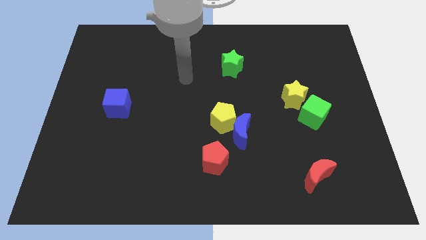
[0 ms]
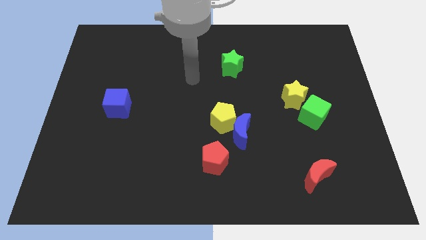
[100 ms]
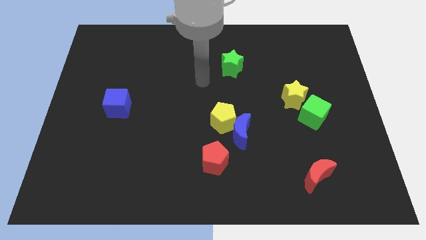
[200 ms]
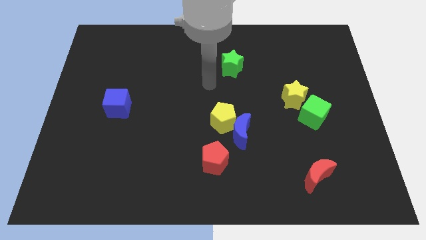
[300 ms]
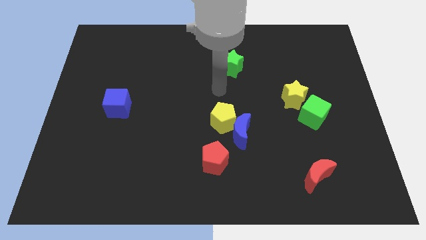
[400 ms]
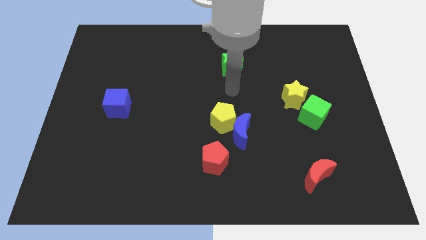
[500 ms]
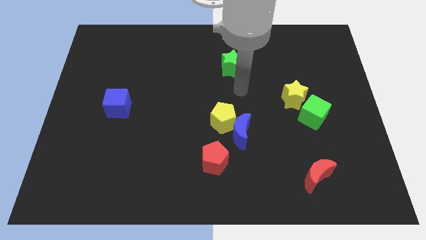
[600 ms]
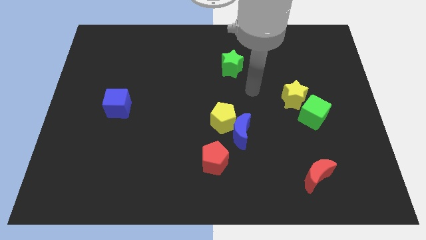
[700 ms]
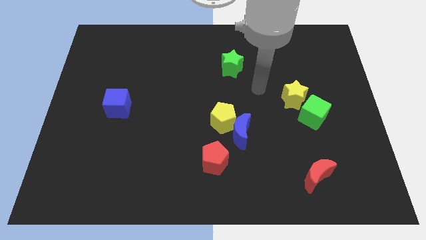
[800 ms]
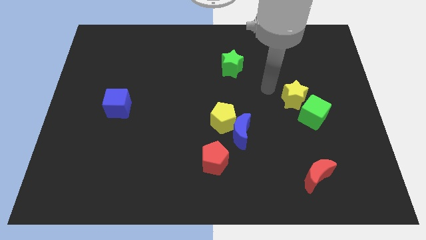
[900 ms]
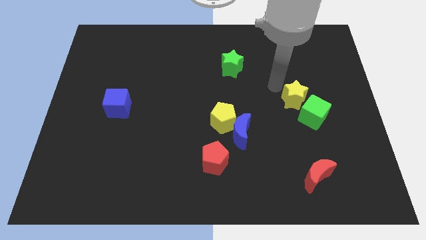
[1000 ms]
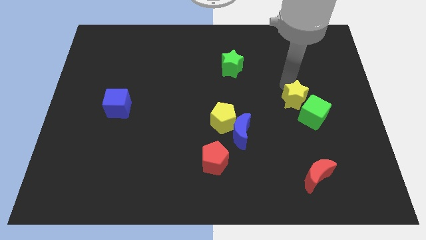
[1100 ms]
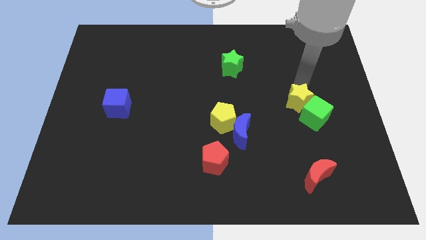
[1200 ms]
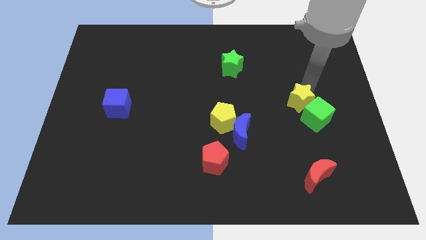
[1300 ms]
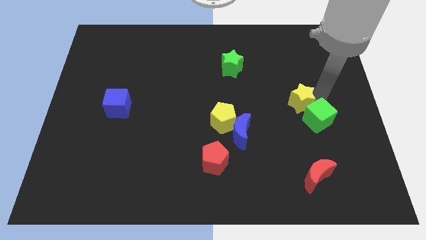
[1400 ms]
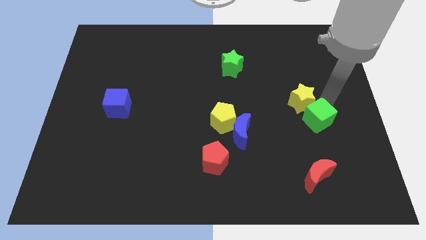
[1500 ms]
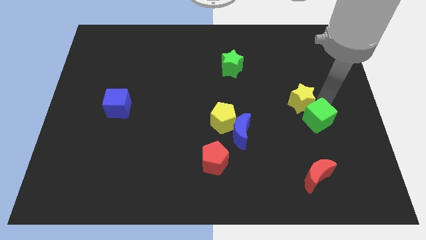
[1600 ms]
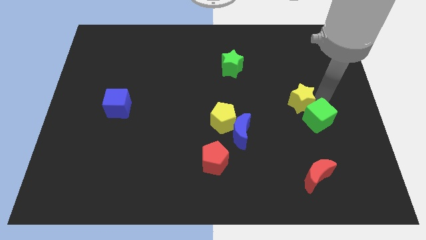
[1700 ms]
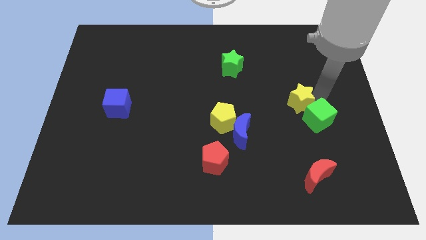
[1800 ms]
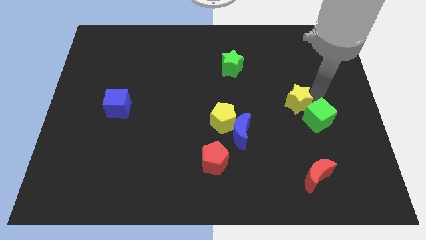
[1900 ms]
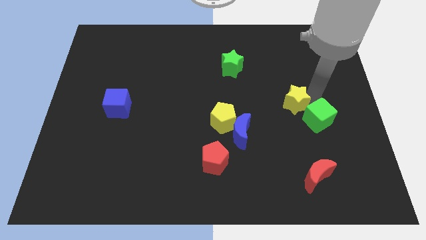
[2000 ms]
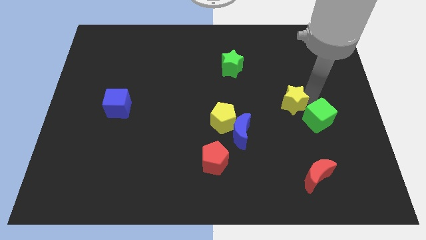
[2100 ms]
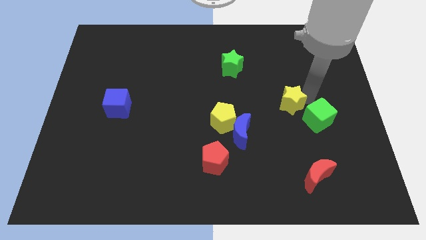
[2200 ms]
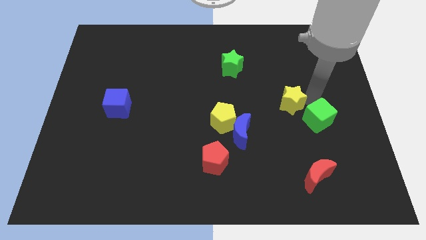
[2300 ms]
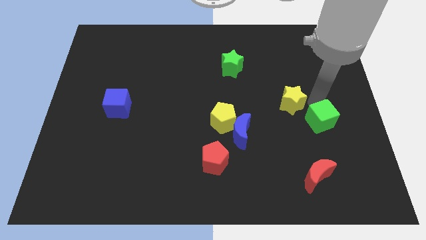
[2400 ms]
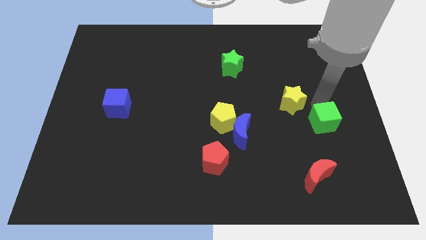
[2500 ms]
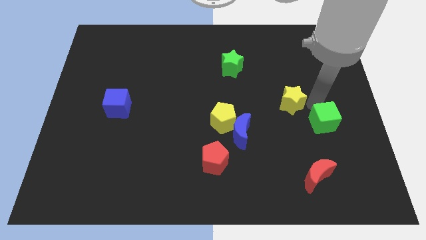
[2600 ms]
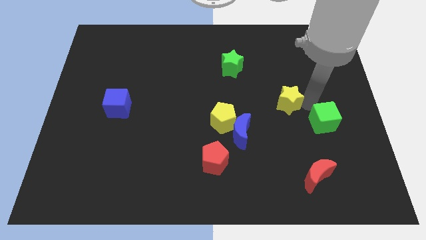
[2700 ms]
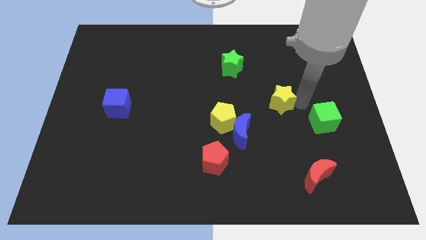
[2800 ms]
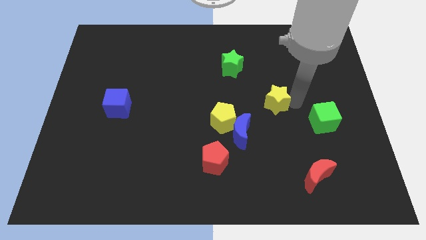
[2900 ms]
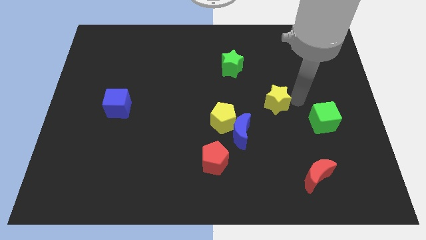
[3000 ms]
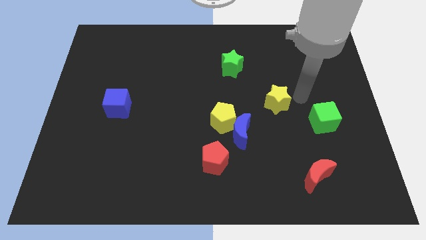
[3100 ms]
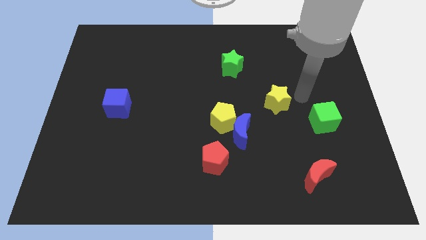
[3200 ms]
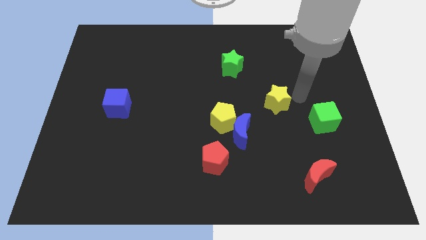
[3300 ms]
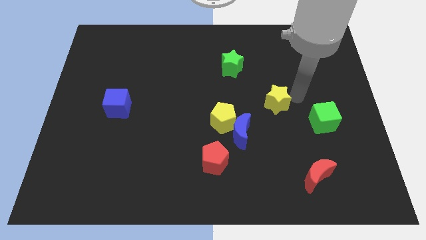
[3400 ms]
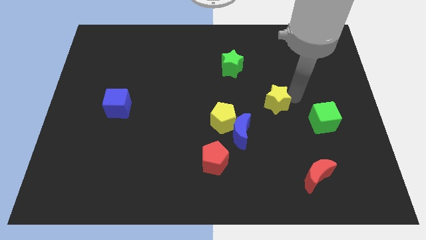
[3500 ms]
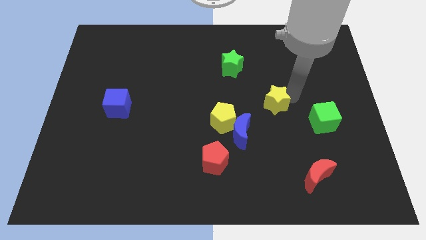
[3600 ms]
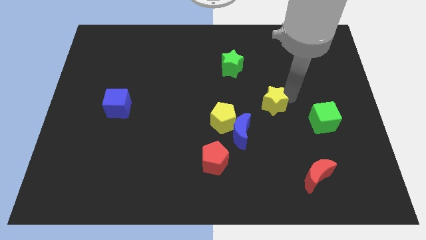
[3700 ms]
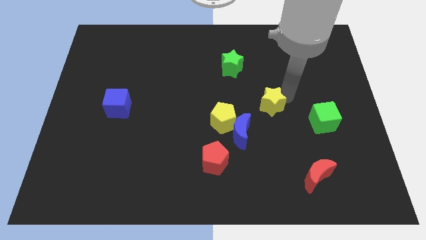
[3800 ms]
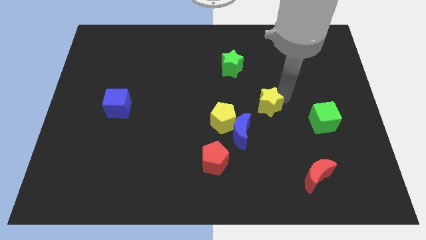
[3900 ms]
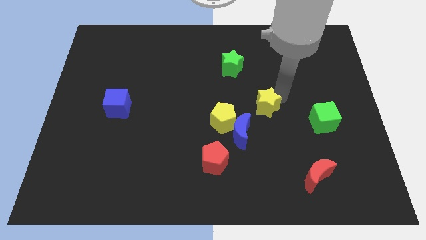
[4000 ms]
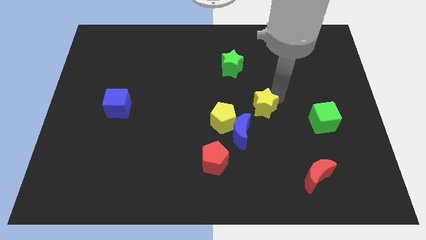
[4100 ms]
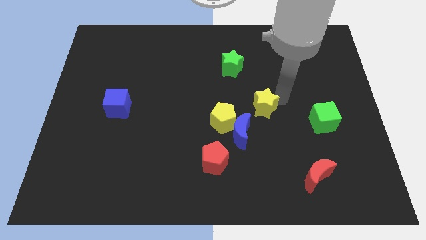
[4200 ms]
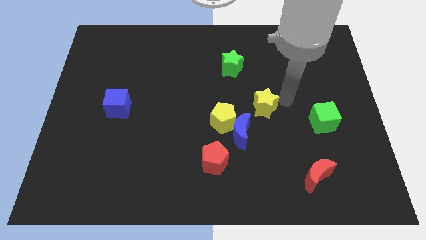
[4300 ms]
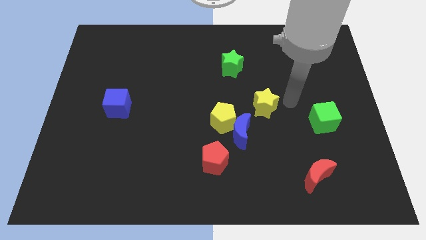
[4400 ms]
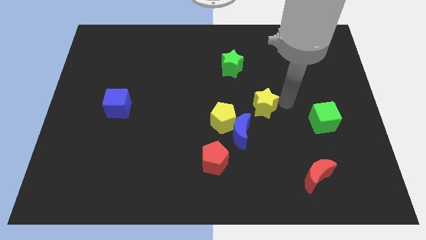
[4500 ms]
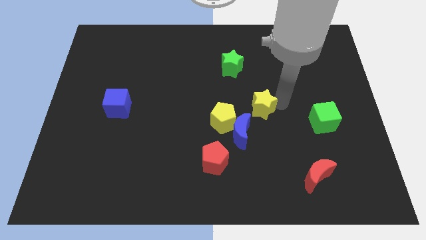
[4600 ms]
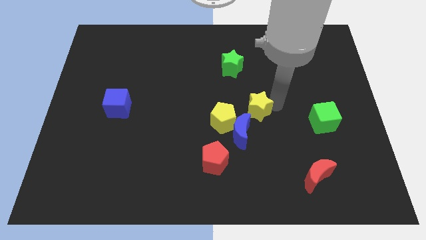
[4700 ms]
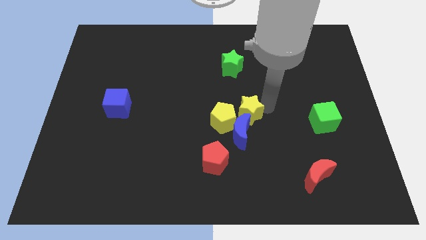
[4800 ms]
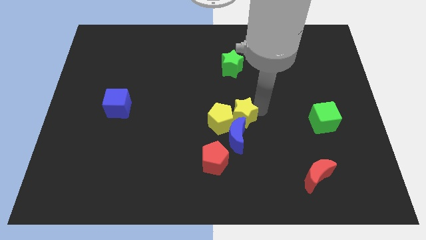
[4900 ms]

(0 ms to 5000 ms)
slide the yellow star to the yellow pentagon

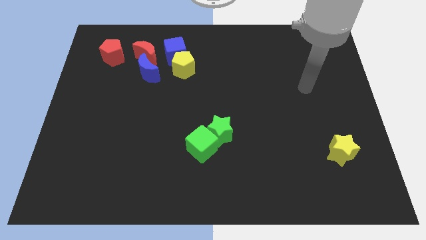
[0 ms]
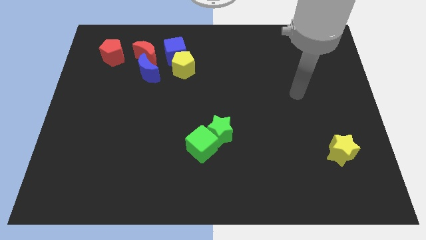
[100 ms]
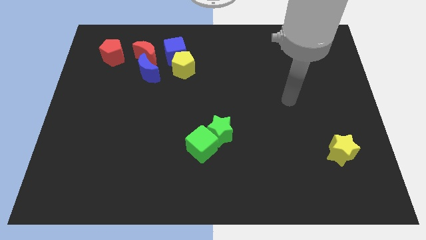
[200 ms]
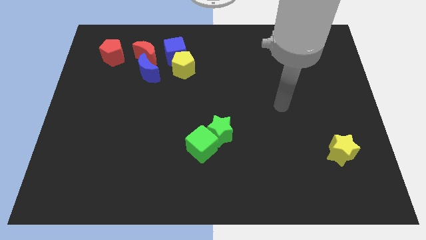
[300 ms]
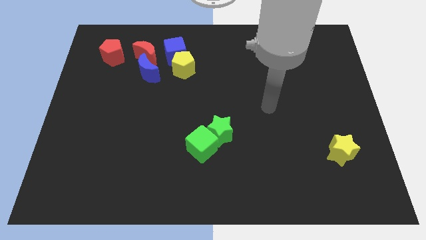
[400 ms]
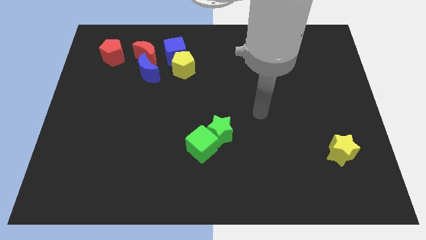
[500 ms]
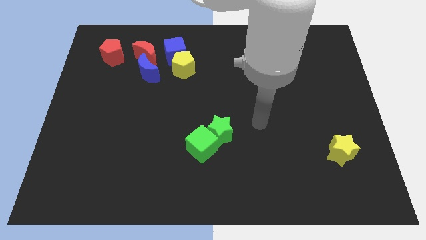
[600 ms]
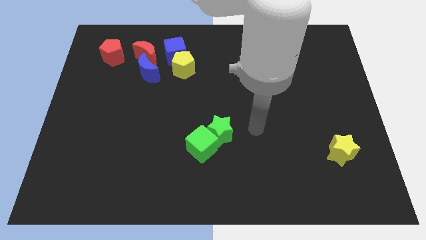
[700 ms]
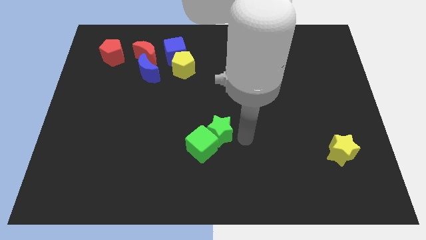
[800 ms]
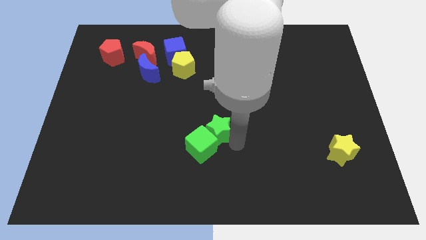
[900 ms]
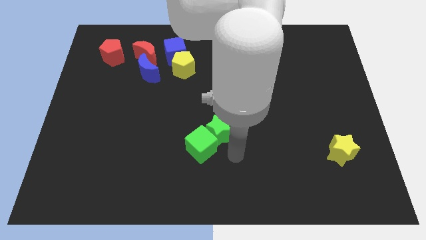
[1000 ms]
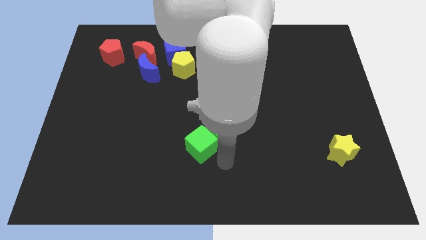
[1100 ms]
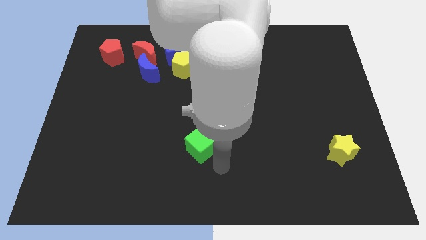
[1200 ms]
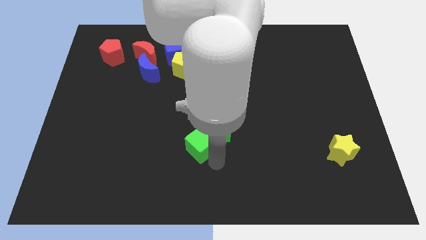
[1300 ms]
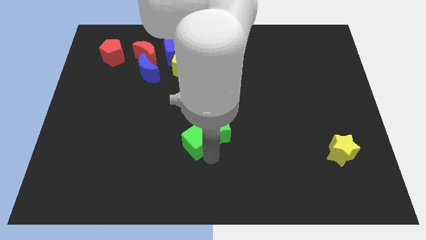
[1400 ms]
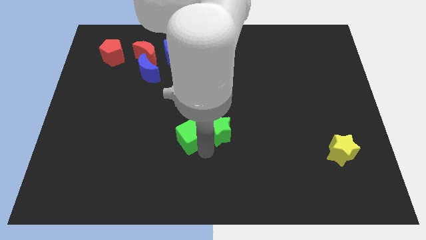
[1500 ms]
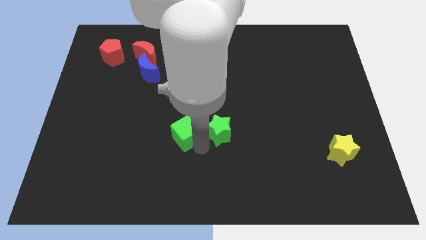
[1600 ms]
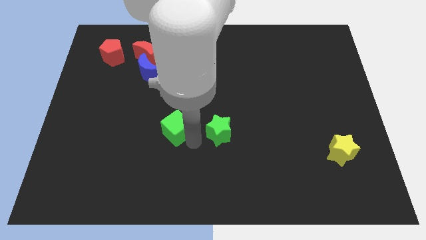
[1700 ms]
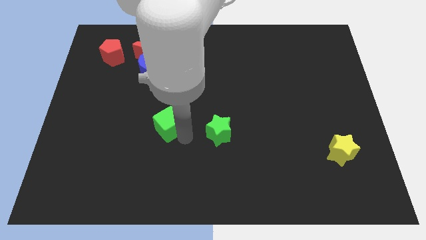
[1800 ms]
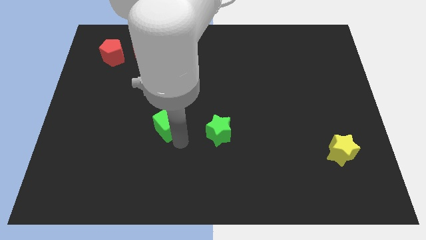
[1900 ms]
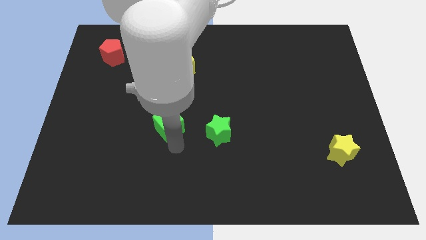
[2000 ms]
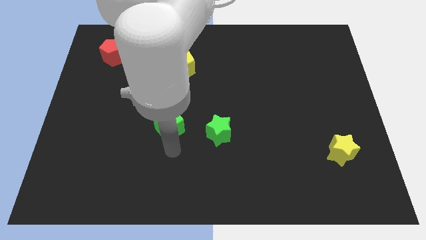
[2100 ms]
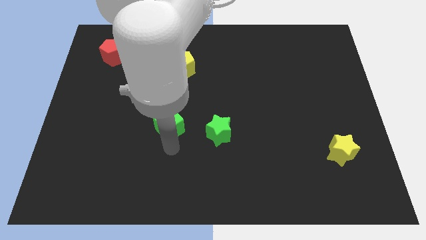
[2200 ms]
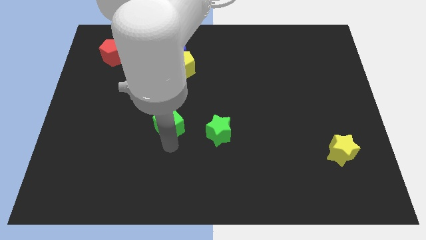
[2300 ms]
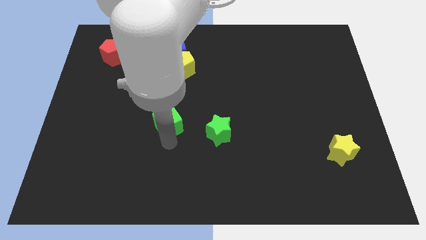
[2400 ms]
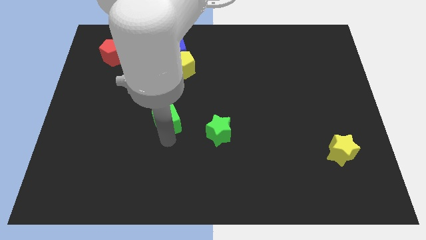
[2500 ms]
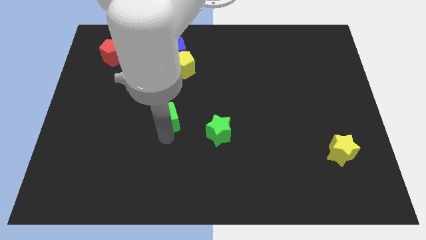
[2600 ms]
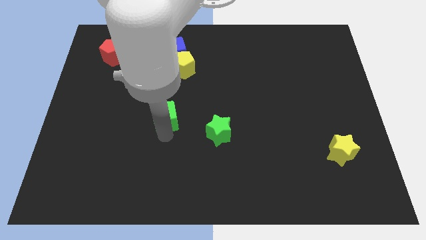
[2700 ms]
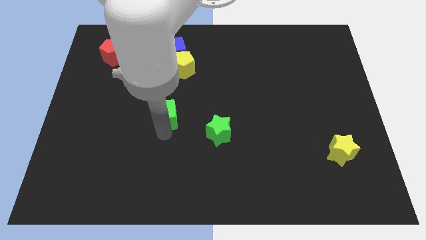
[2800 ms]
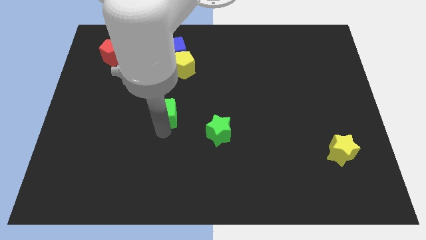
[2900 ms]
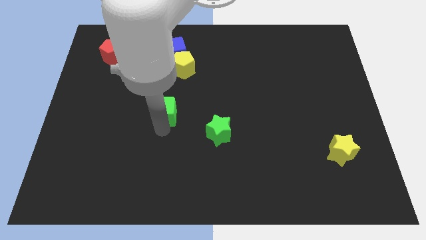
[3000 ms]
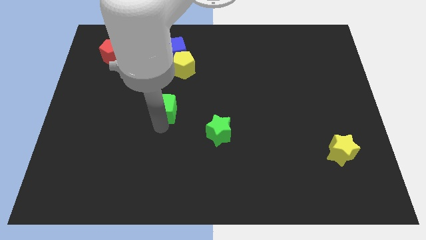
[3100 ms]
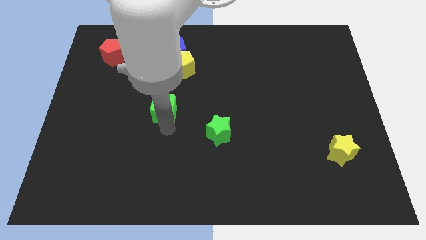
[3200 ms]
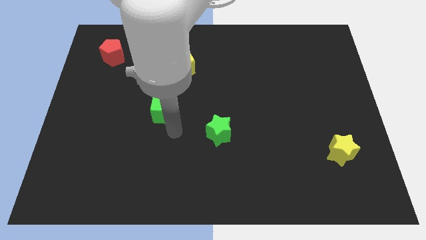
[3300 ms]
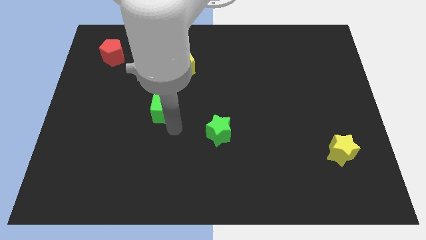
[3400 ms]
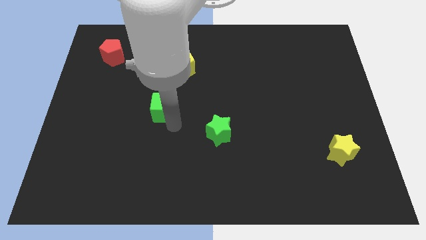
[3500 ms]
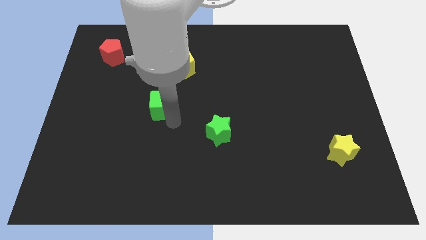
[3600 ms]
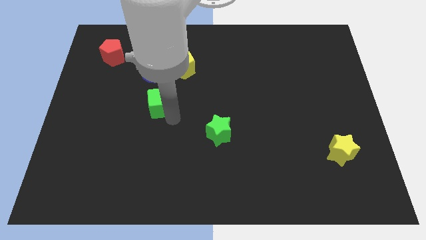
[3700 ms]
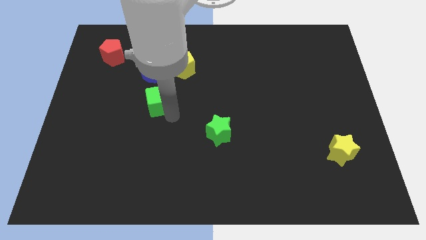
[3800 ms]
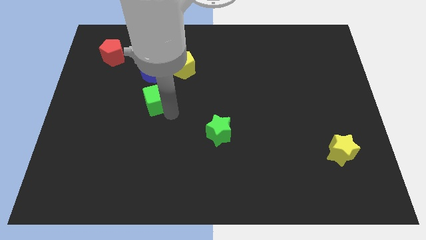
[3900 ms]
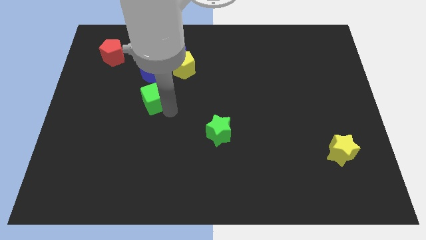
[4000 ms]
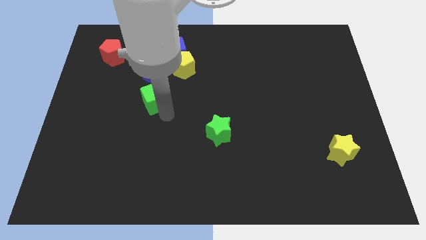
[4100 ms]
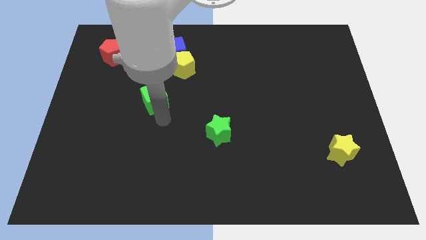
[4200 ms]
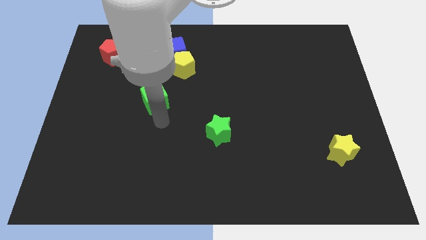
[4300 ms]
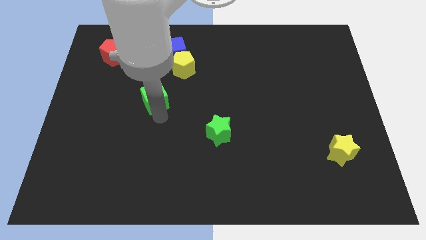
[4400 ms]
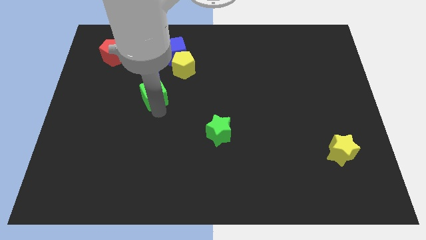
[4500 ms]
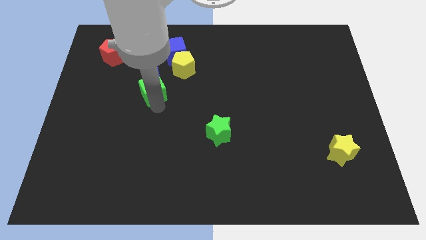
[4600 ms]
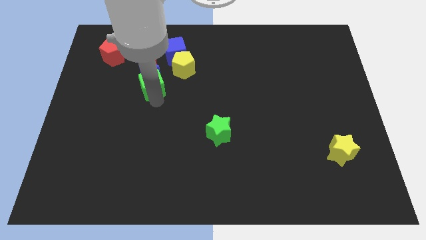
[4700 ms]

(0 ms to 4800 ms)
move the green cube towards the blue moon
